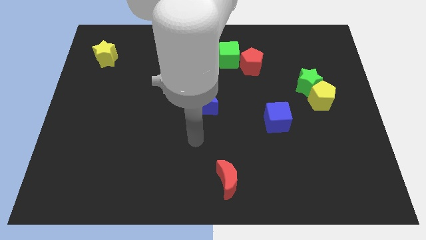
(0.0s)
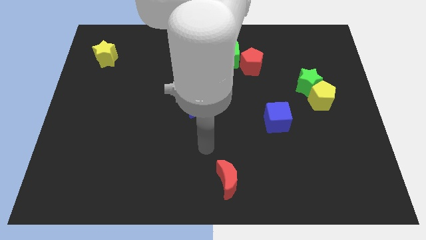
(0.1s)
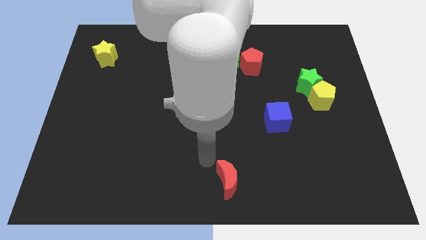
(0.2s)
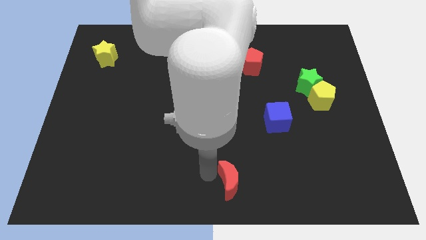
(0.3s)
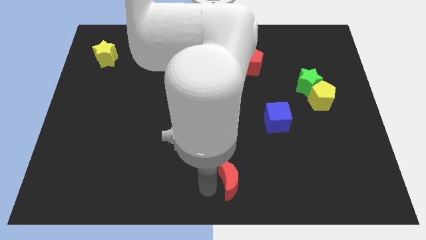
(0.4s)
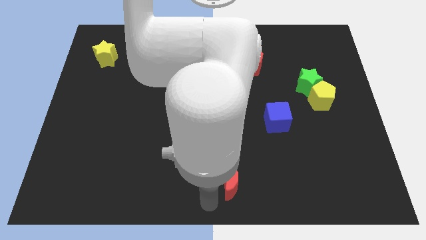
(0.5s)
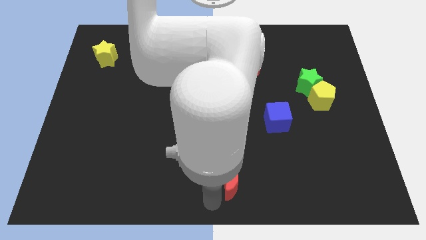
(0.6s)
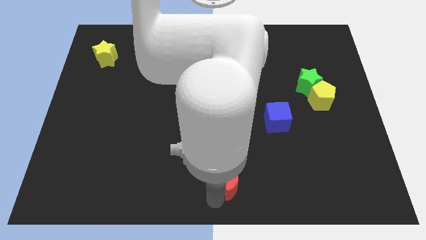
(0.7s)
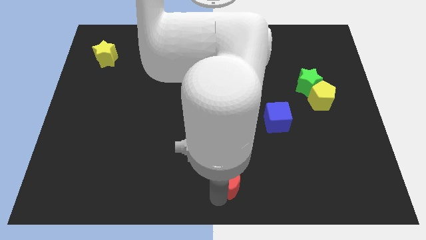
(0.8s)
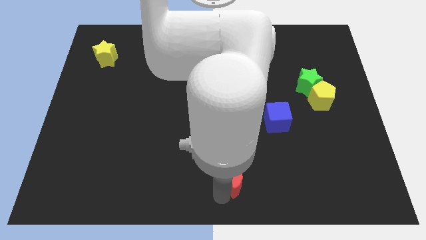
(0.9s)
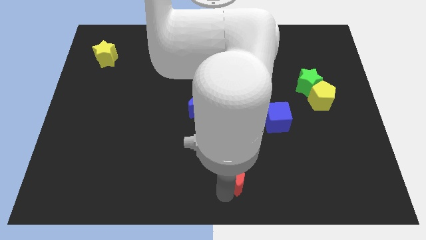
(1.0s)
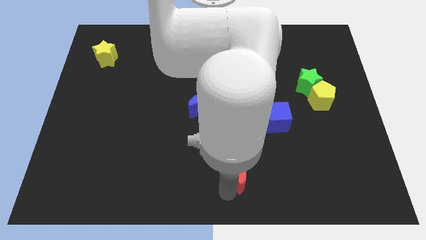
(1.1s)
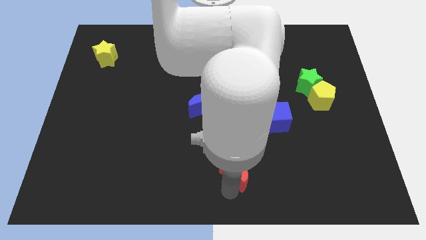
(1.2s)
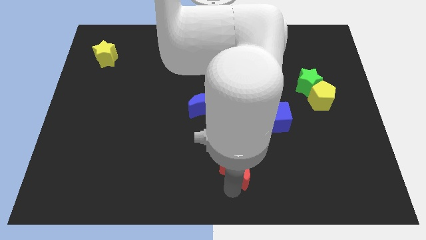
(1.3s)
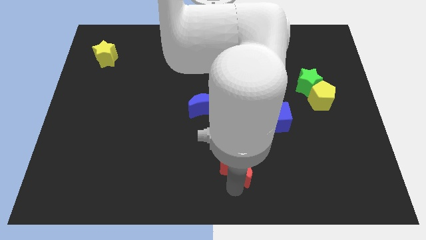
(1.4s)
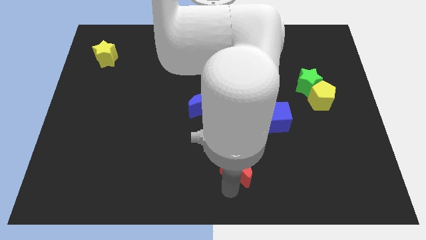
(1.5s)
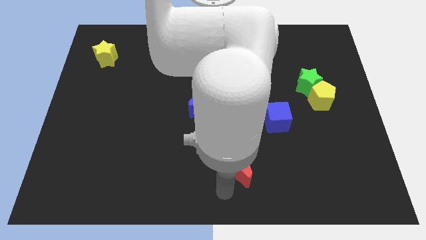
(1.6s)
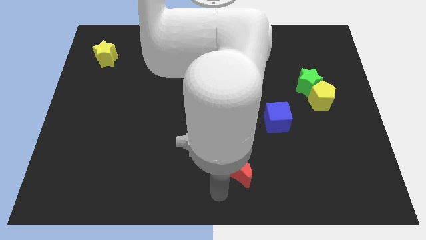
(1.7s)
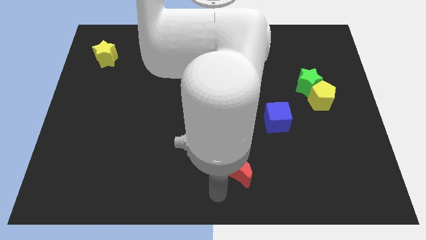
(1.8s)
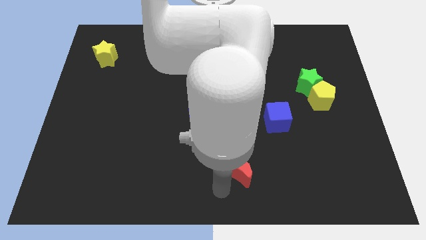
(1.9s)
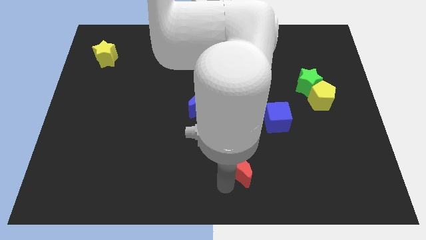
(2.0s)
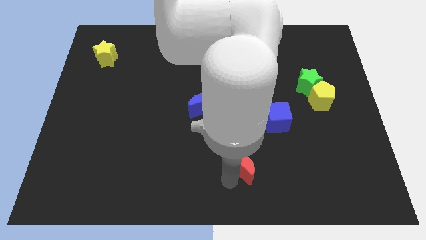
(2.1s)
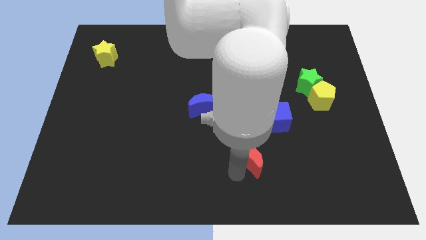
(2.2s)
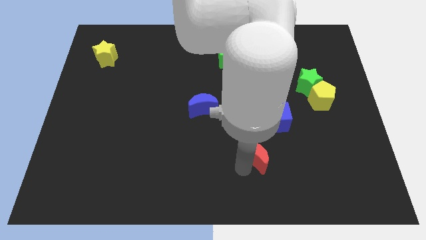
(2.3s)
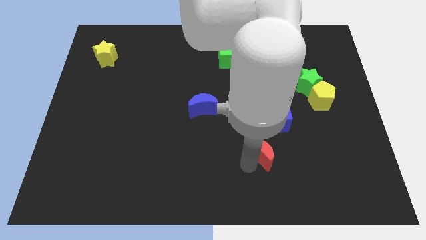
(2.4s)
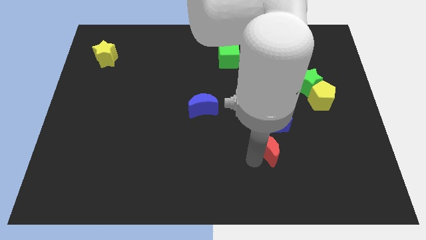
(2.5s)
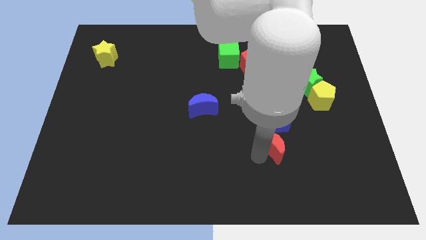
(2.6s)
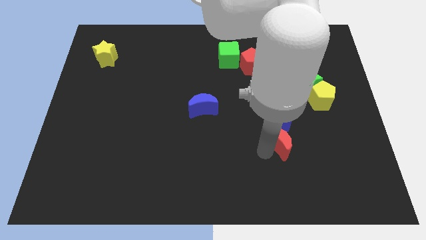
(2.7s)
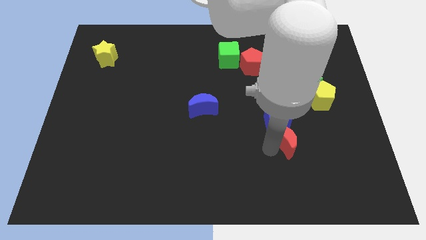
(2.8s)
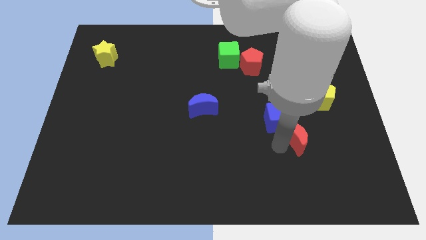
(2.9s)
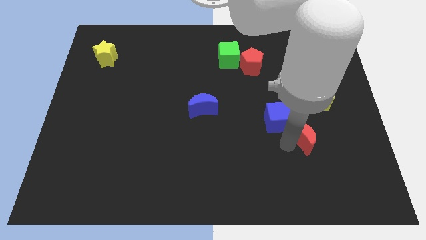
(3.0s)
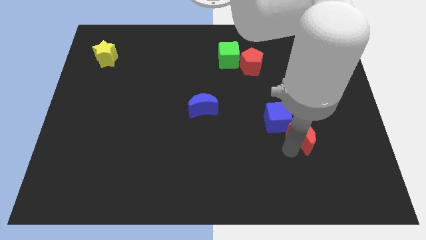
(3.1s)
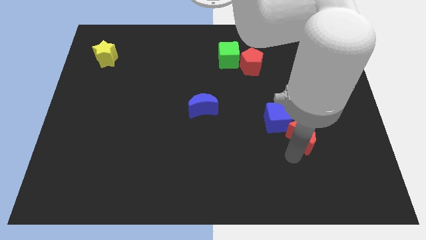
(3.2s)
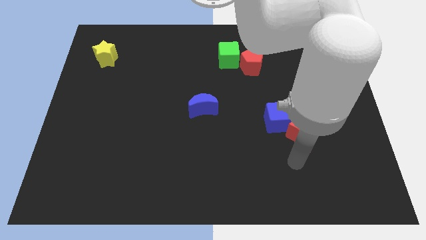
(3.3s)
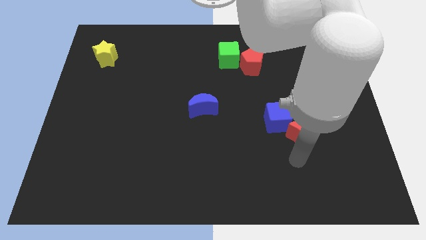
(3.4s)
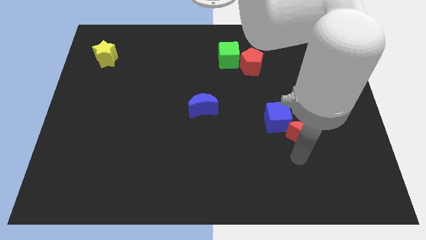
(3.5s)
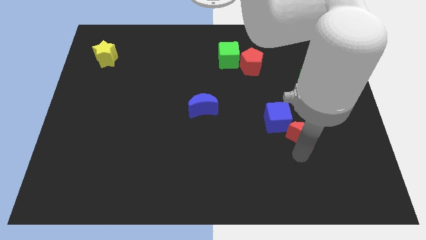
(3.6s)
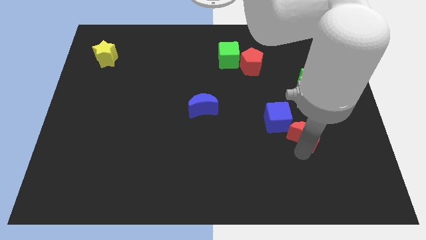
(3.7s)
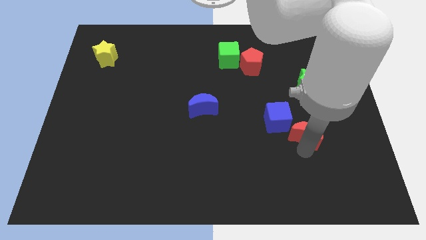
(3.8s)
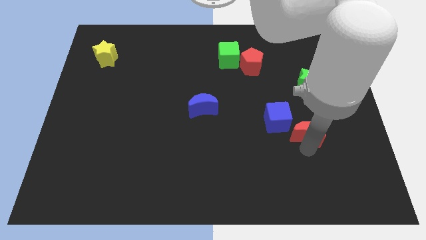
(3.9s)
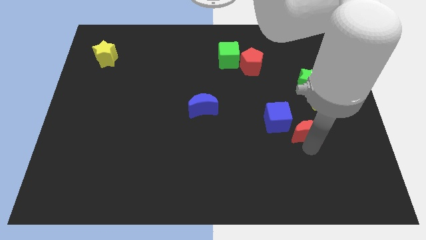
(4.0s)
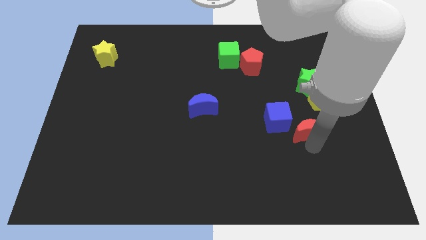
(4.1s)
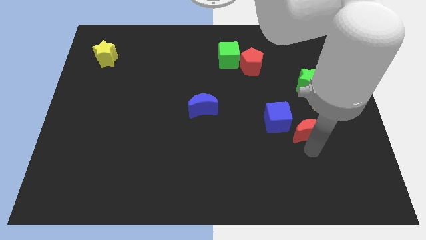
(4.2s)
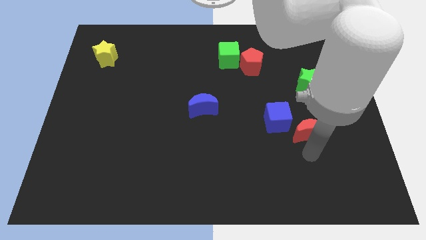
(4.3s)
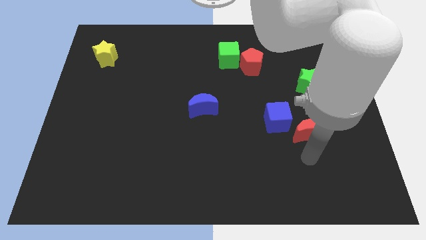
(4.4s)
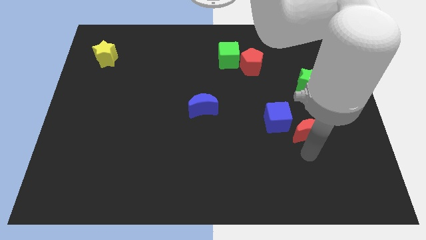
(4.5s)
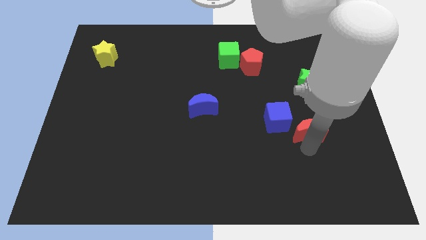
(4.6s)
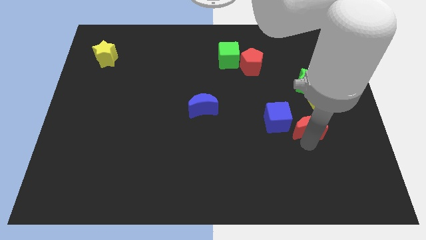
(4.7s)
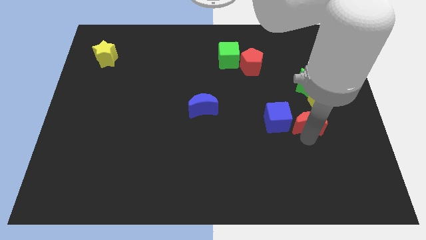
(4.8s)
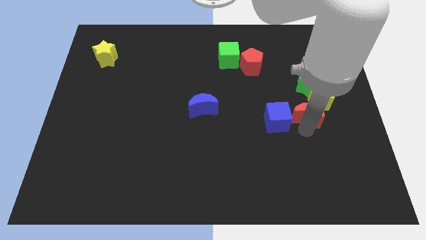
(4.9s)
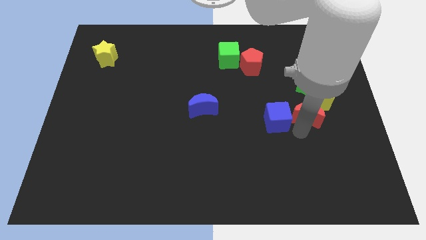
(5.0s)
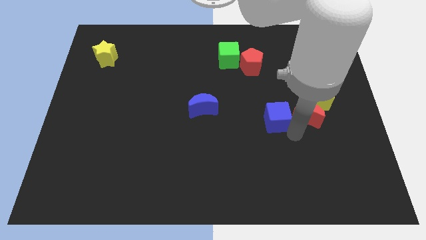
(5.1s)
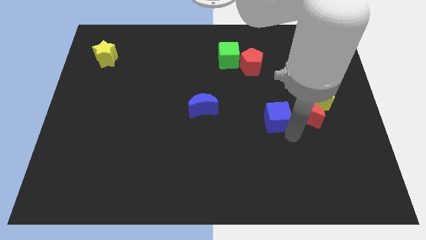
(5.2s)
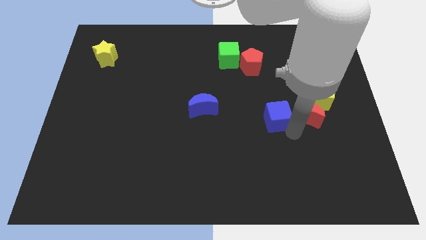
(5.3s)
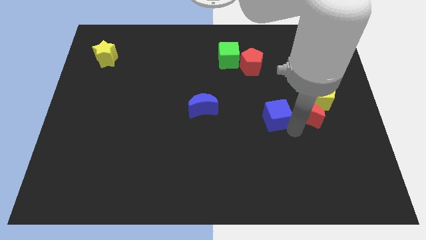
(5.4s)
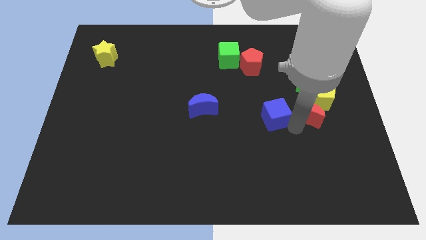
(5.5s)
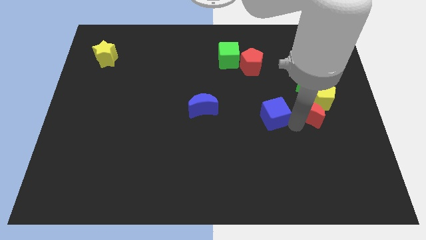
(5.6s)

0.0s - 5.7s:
slide the red moon close to the yellow pentagon

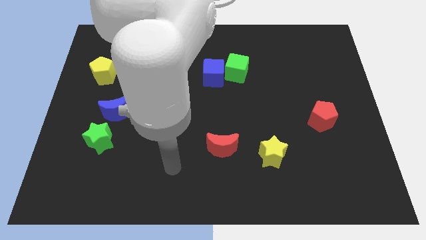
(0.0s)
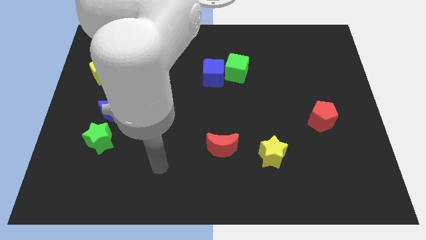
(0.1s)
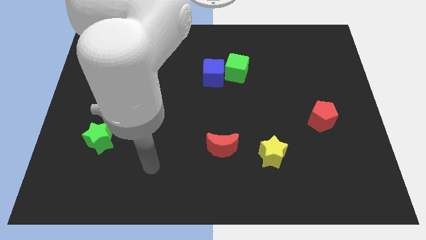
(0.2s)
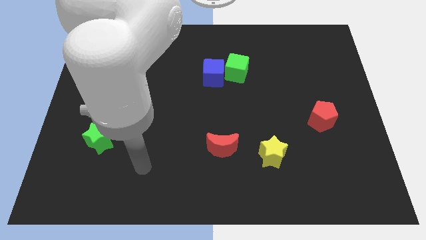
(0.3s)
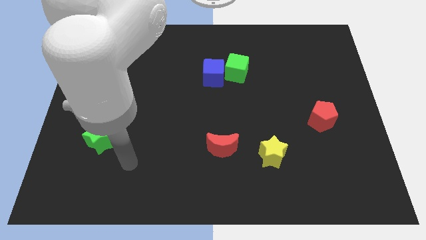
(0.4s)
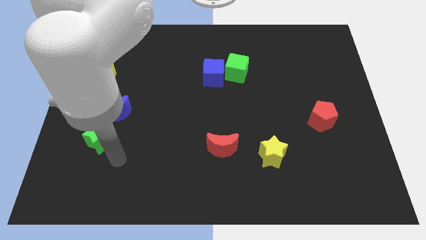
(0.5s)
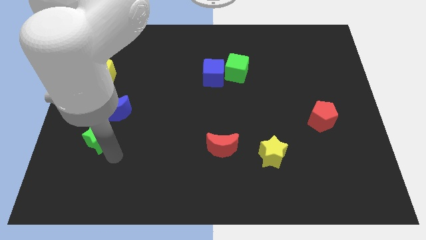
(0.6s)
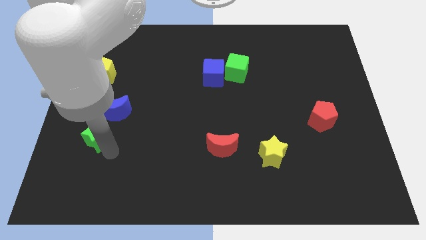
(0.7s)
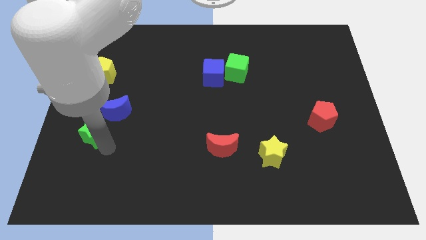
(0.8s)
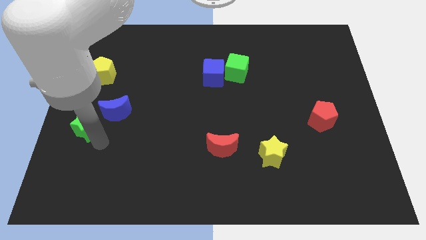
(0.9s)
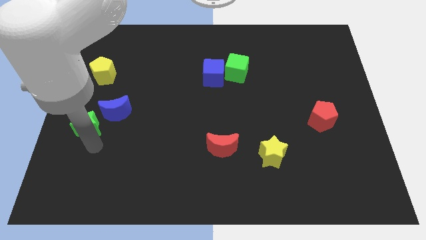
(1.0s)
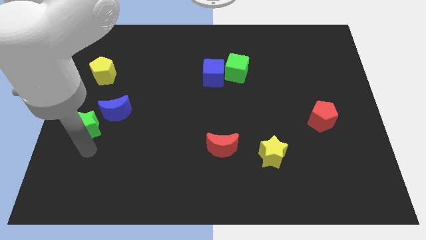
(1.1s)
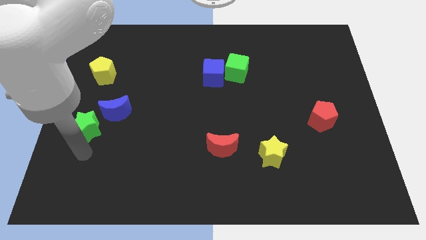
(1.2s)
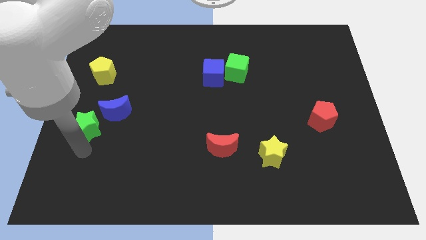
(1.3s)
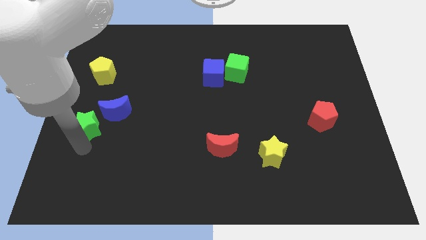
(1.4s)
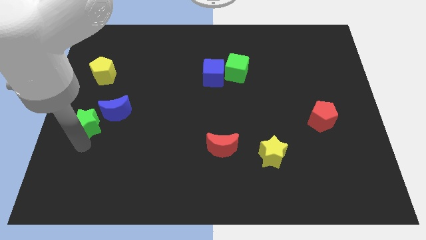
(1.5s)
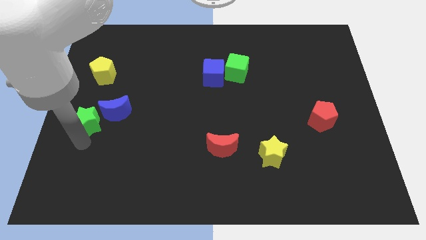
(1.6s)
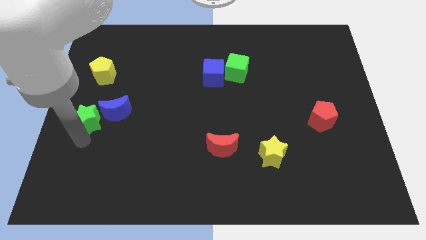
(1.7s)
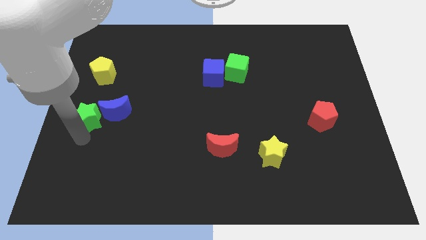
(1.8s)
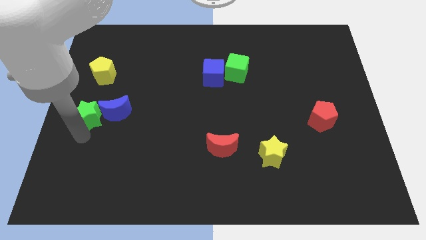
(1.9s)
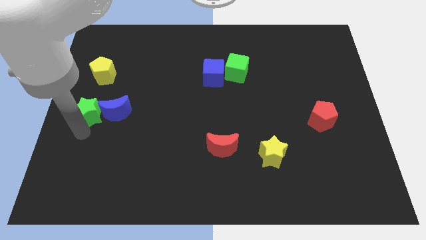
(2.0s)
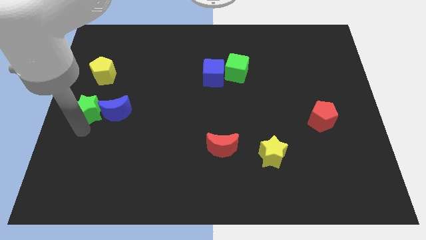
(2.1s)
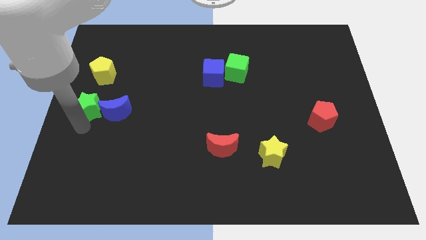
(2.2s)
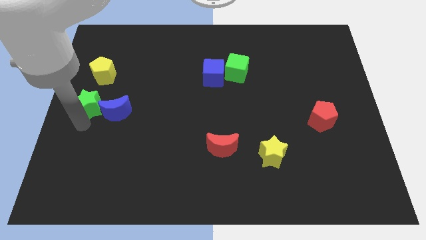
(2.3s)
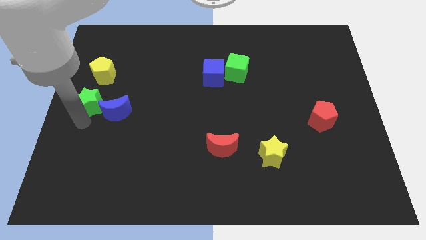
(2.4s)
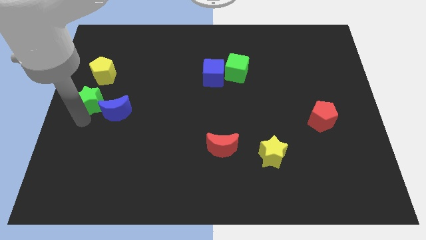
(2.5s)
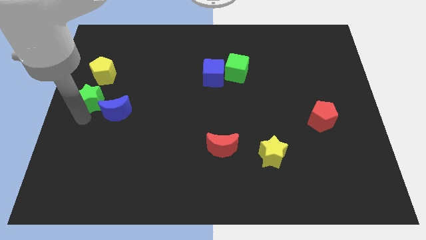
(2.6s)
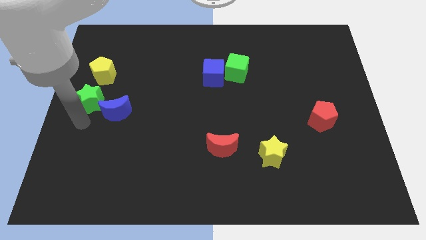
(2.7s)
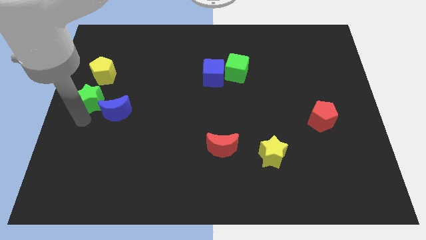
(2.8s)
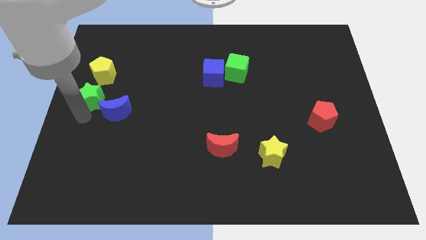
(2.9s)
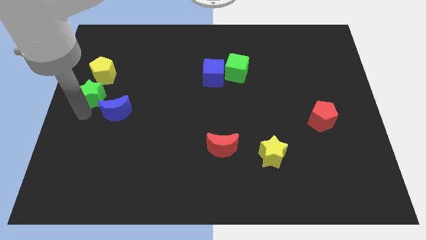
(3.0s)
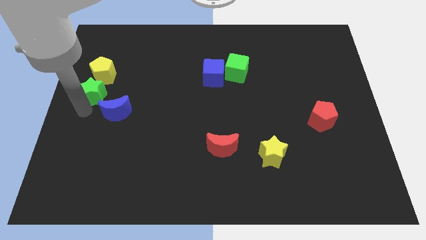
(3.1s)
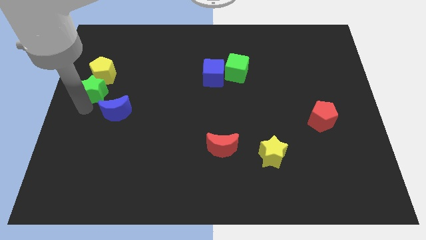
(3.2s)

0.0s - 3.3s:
push the green star next to the yellow pentagon
